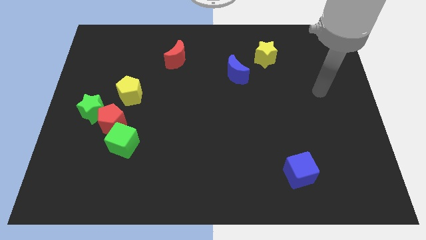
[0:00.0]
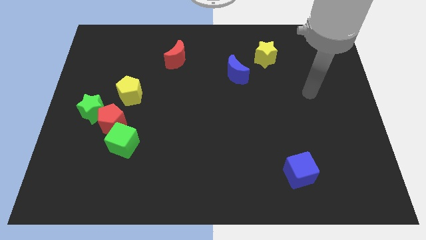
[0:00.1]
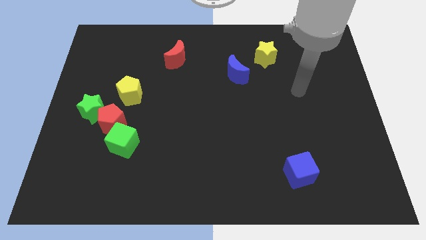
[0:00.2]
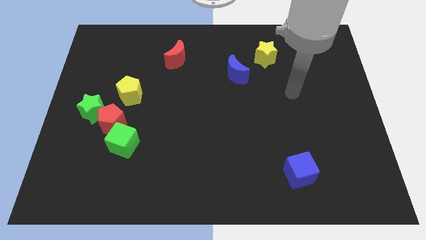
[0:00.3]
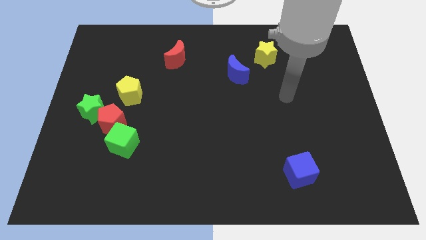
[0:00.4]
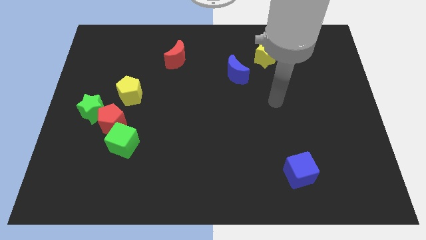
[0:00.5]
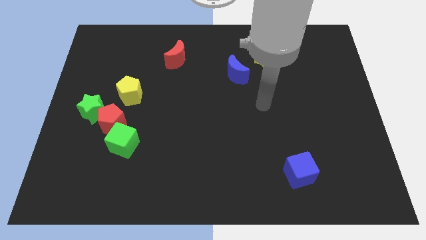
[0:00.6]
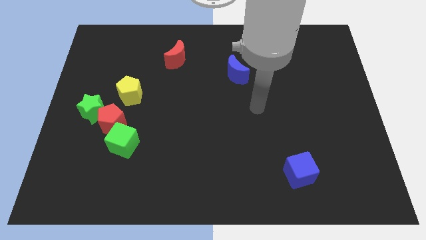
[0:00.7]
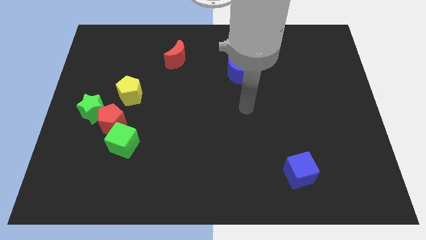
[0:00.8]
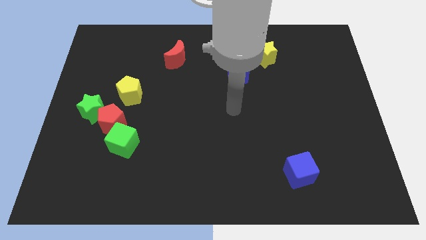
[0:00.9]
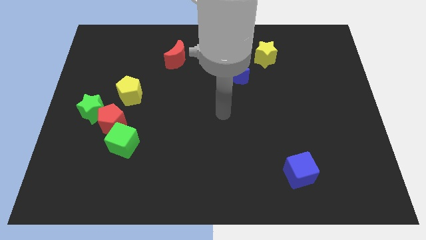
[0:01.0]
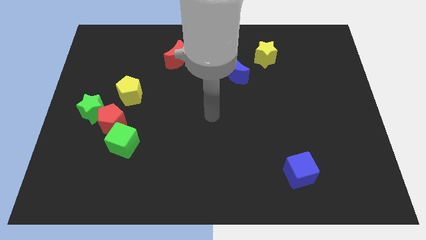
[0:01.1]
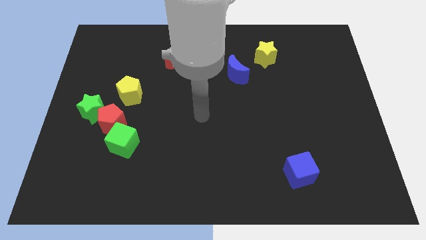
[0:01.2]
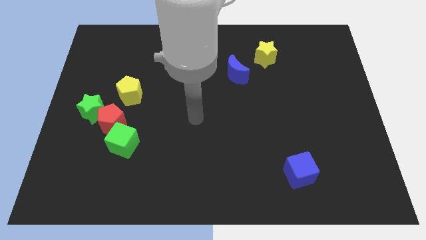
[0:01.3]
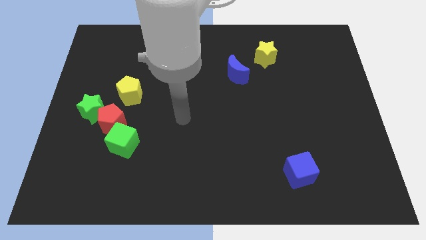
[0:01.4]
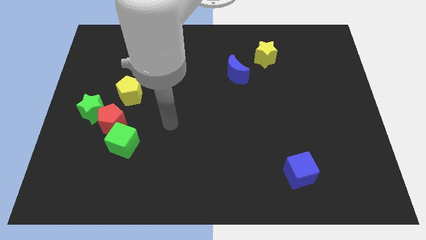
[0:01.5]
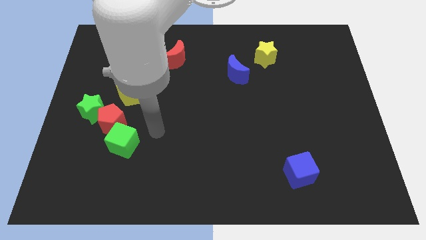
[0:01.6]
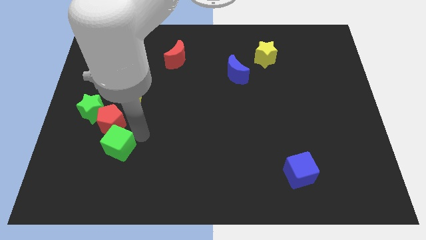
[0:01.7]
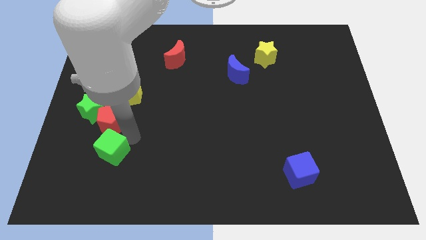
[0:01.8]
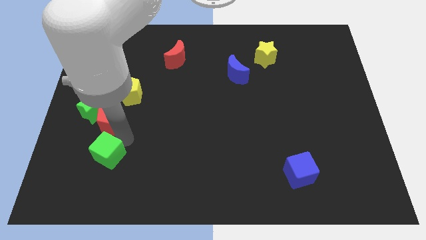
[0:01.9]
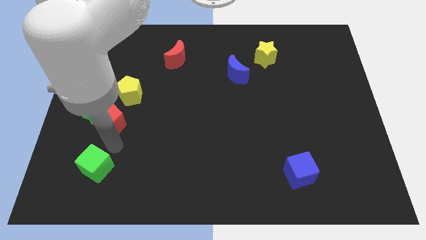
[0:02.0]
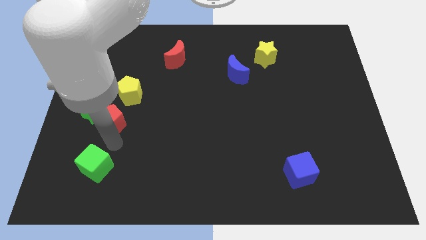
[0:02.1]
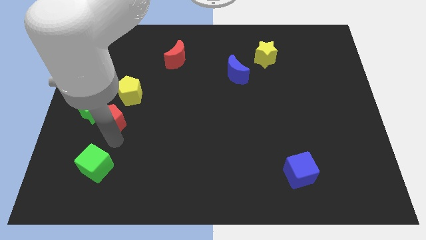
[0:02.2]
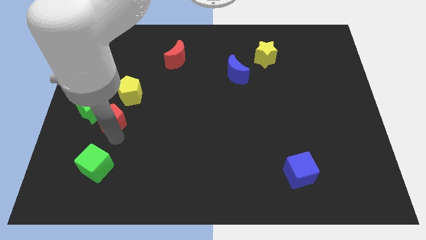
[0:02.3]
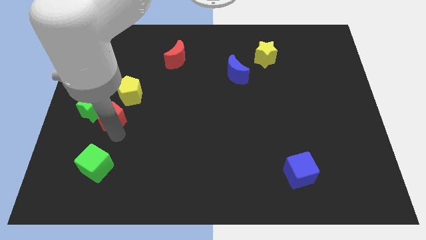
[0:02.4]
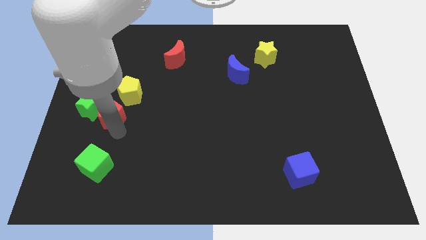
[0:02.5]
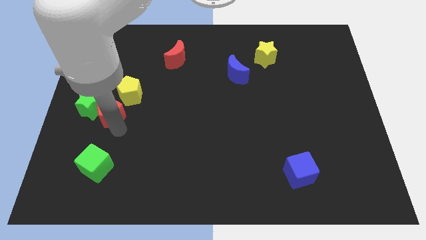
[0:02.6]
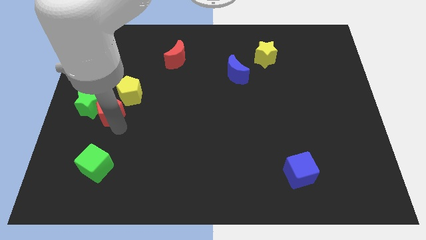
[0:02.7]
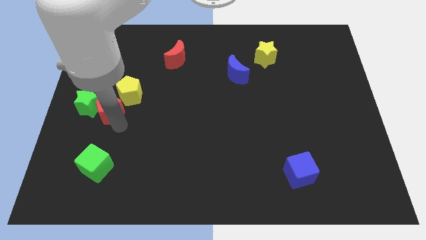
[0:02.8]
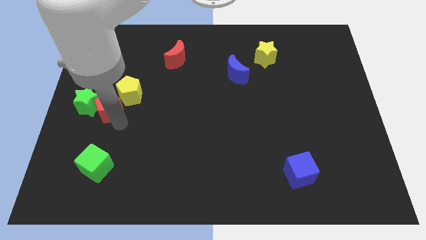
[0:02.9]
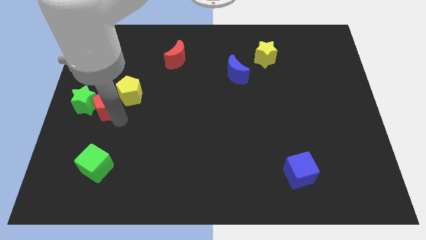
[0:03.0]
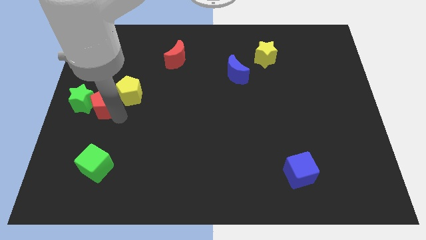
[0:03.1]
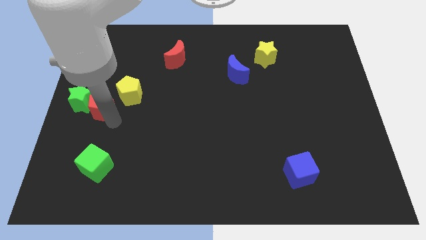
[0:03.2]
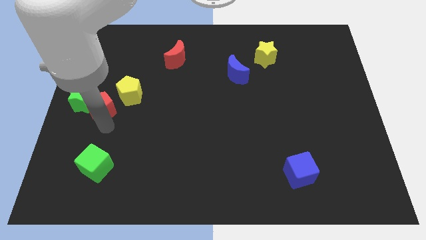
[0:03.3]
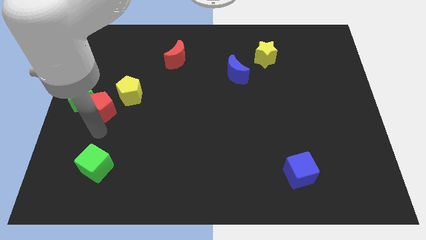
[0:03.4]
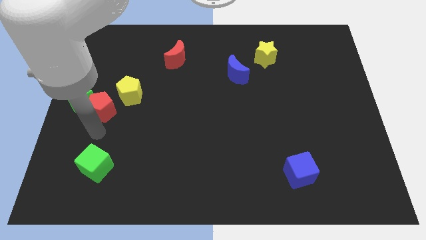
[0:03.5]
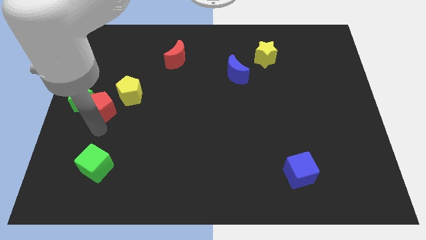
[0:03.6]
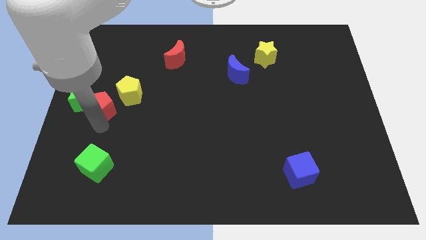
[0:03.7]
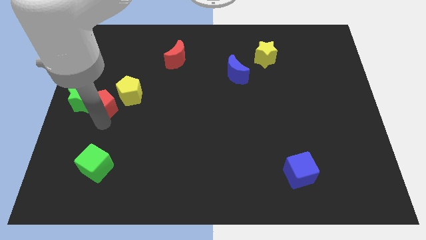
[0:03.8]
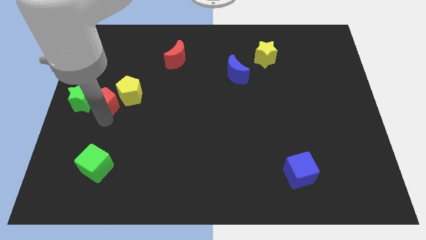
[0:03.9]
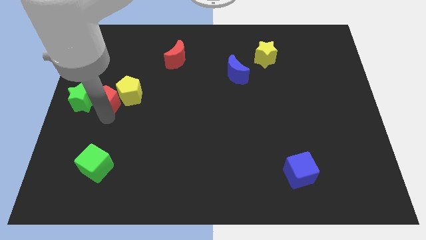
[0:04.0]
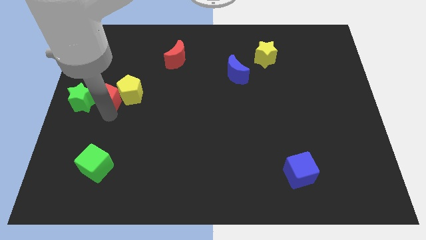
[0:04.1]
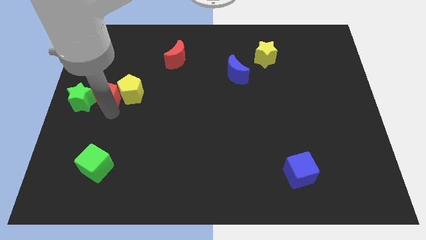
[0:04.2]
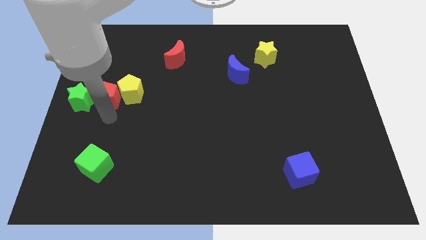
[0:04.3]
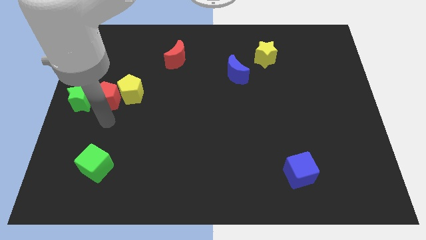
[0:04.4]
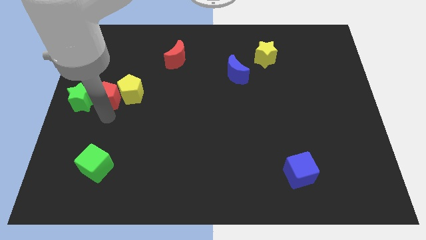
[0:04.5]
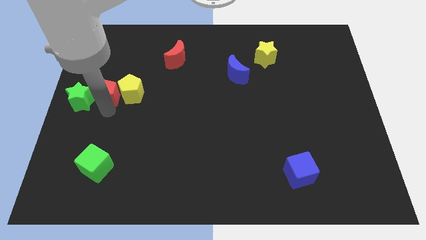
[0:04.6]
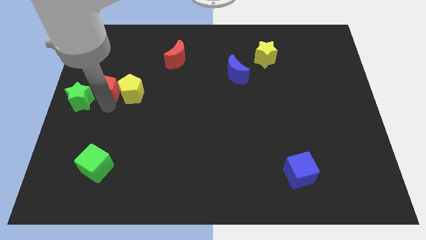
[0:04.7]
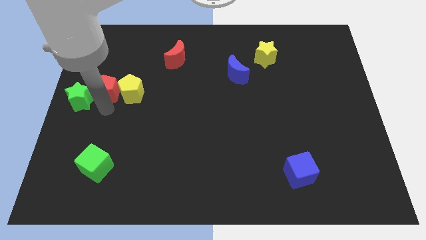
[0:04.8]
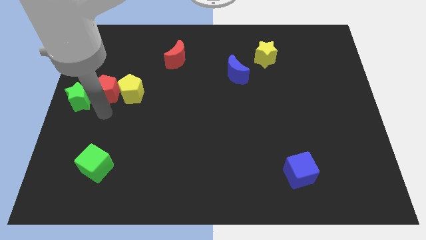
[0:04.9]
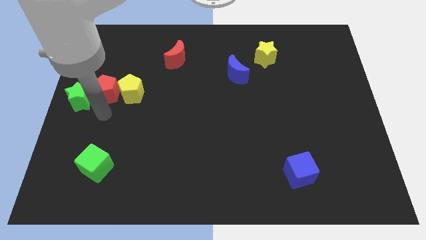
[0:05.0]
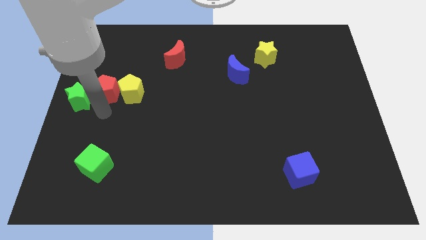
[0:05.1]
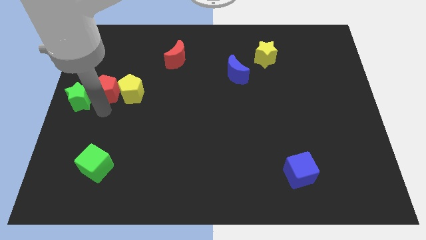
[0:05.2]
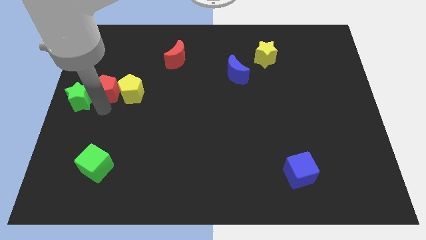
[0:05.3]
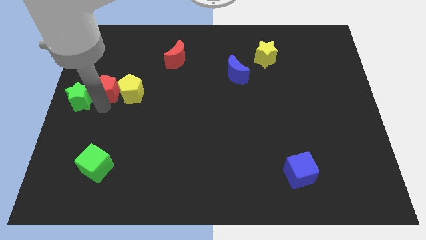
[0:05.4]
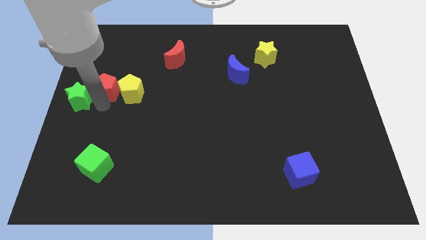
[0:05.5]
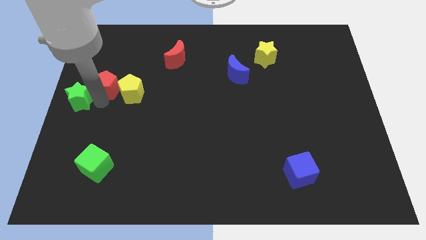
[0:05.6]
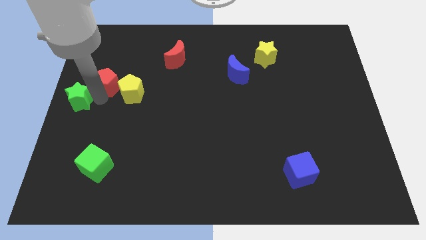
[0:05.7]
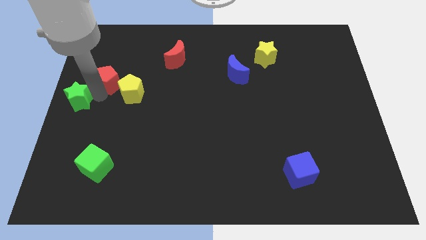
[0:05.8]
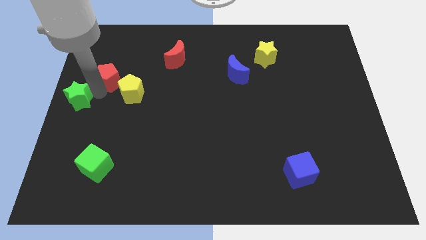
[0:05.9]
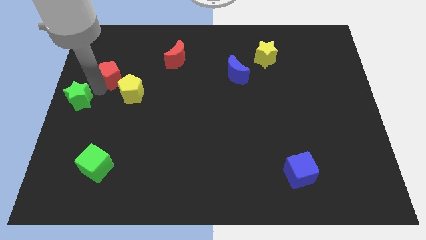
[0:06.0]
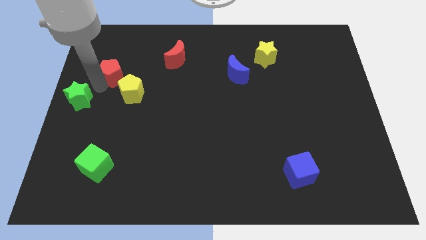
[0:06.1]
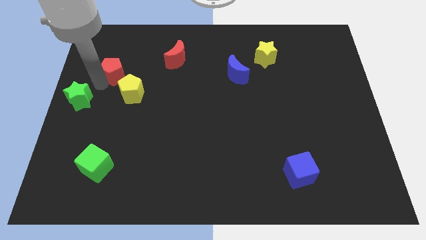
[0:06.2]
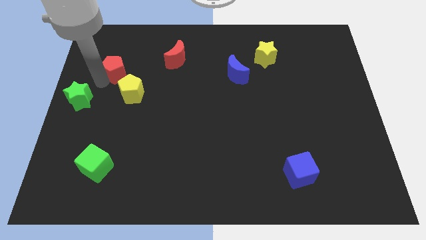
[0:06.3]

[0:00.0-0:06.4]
slide the red pentagon above the yellow pentagon
